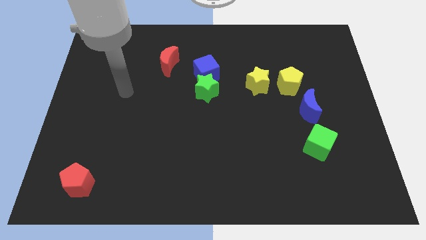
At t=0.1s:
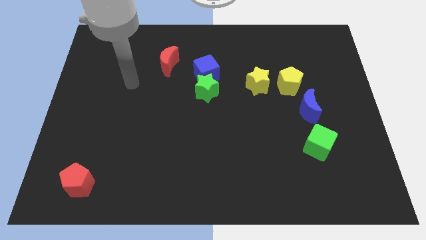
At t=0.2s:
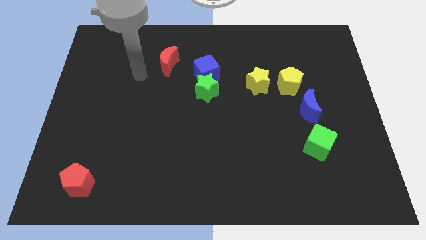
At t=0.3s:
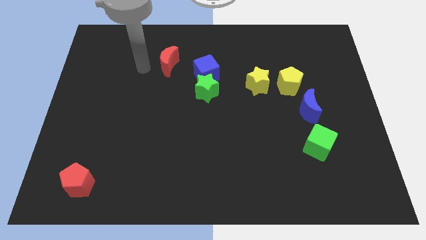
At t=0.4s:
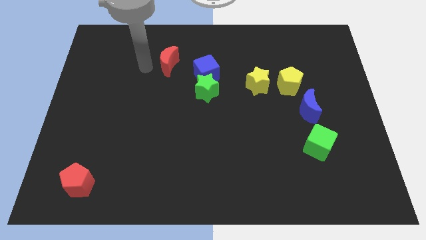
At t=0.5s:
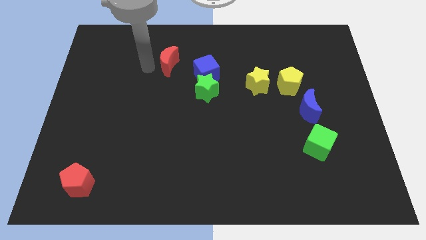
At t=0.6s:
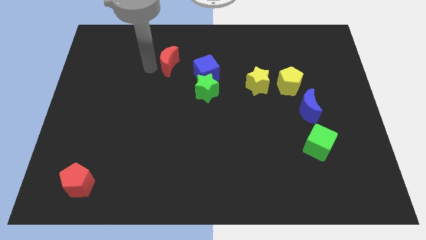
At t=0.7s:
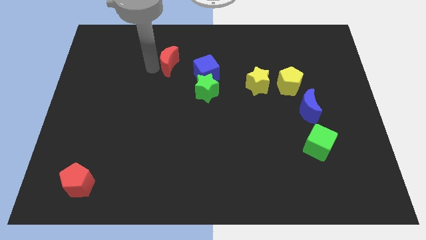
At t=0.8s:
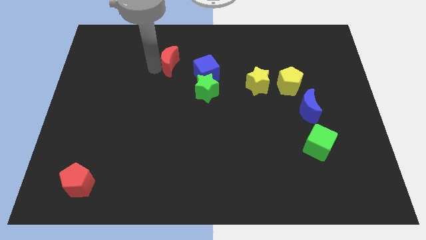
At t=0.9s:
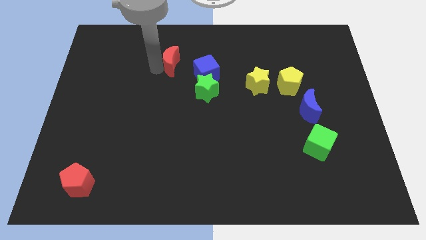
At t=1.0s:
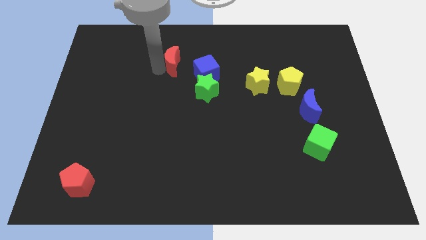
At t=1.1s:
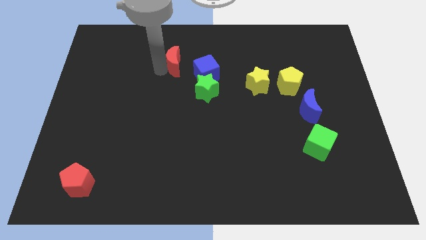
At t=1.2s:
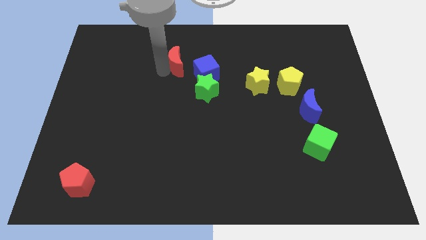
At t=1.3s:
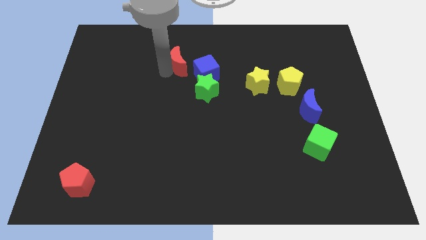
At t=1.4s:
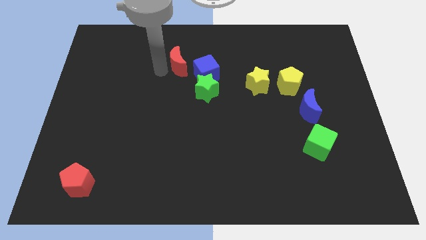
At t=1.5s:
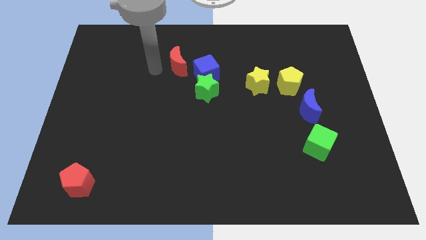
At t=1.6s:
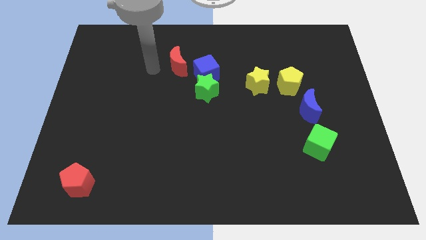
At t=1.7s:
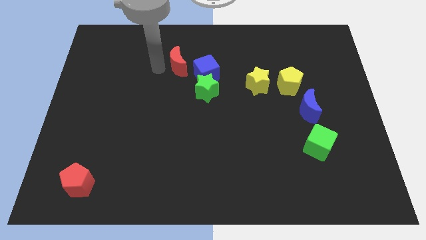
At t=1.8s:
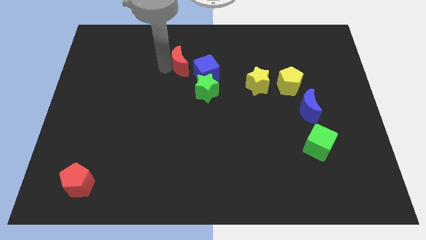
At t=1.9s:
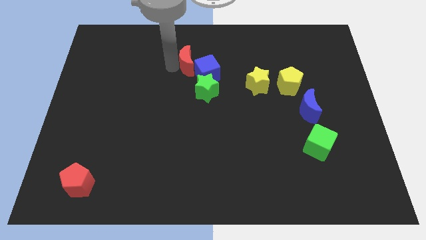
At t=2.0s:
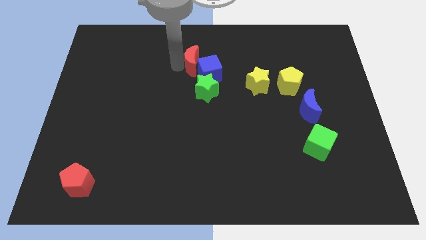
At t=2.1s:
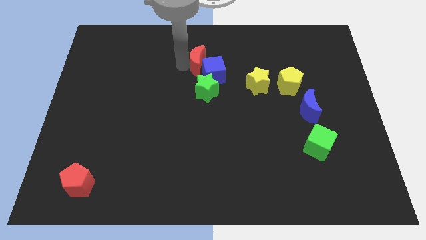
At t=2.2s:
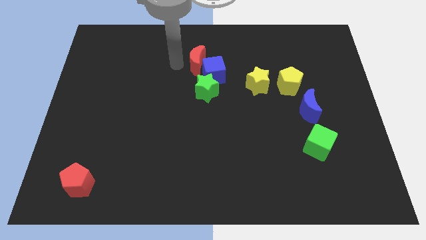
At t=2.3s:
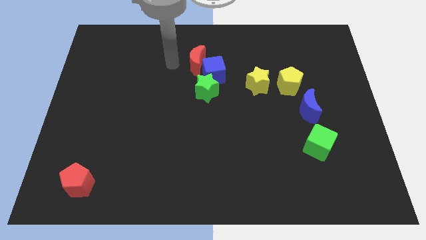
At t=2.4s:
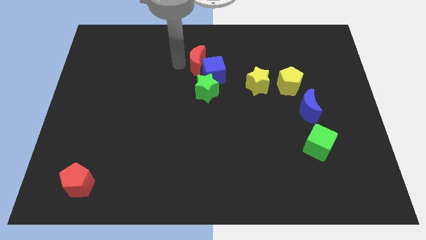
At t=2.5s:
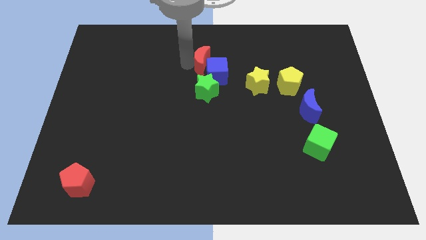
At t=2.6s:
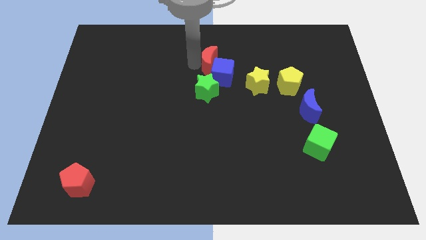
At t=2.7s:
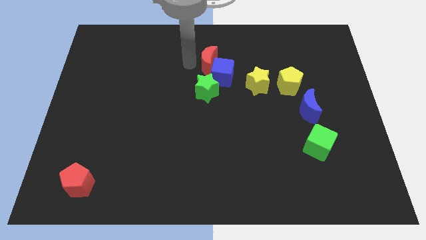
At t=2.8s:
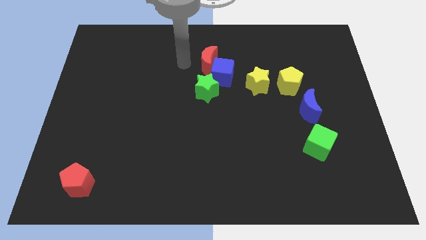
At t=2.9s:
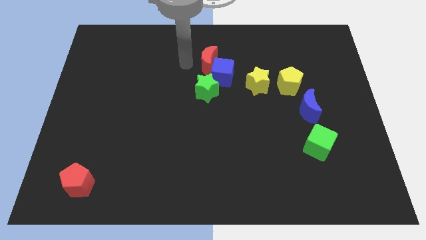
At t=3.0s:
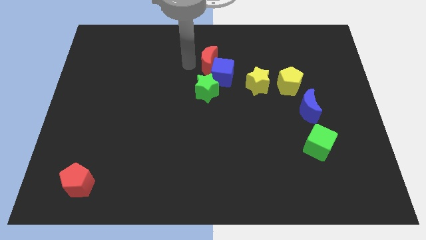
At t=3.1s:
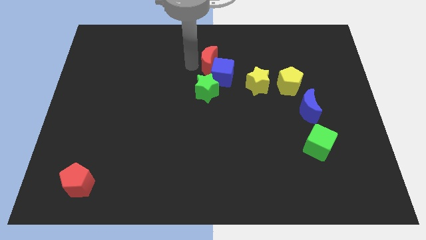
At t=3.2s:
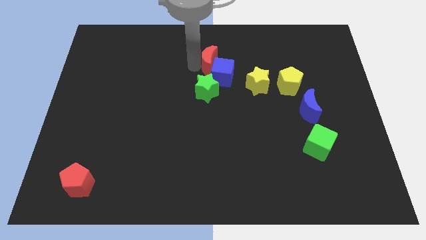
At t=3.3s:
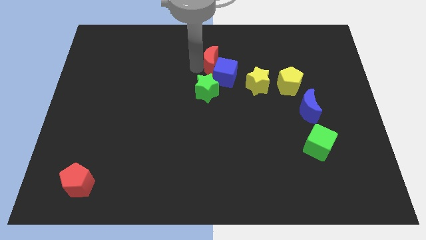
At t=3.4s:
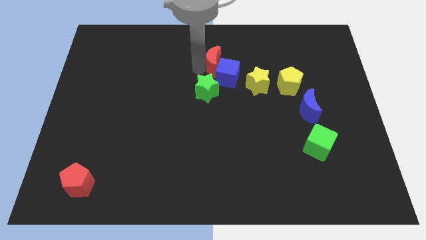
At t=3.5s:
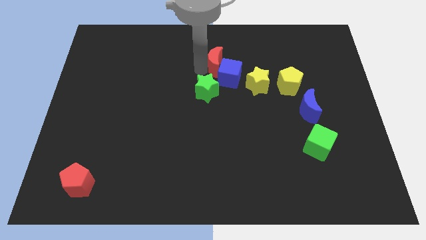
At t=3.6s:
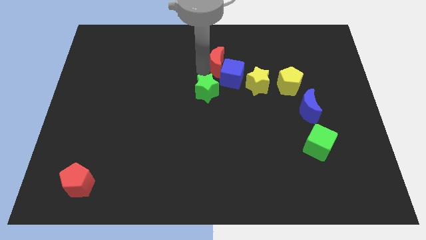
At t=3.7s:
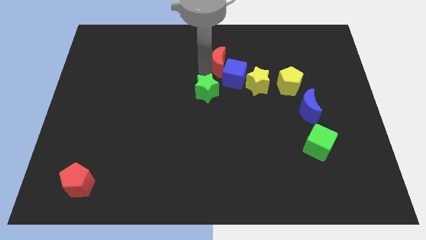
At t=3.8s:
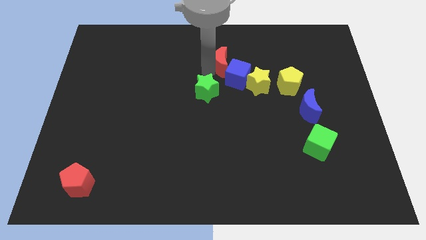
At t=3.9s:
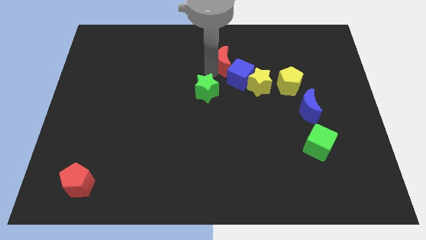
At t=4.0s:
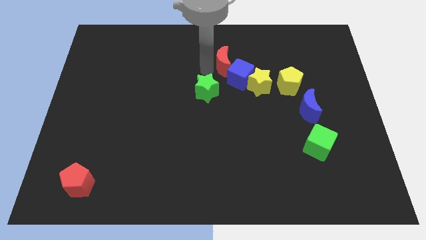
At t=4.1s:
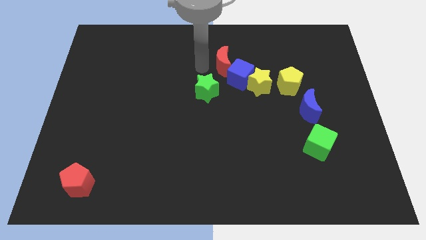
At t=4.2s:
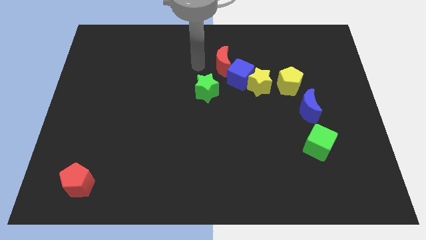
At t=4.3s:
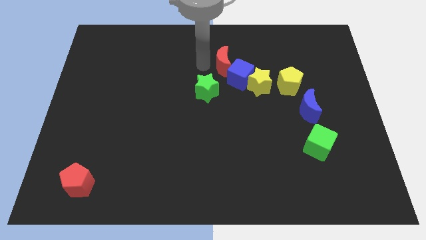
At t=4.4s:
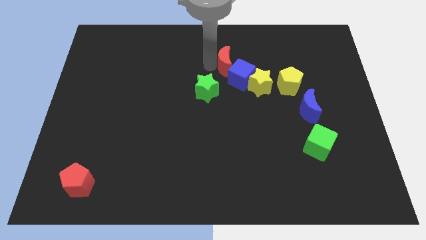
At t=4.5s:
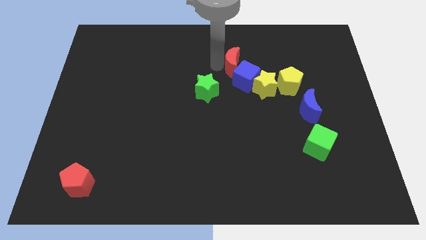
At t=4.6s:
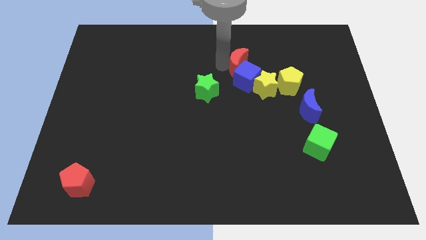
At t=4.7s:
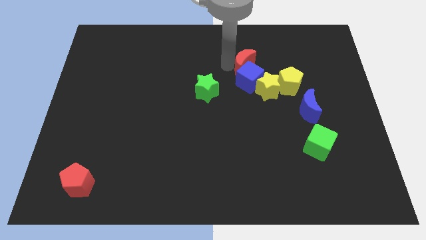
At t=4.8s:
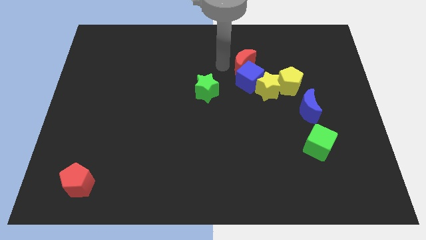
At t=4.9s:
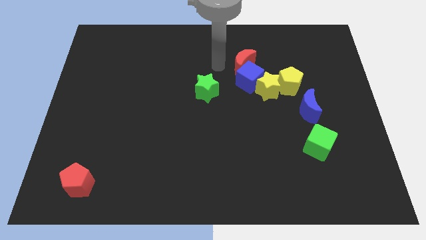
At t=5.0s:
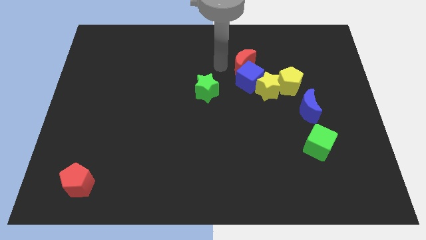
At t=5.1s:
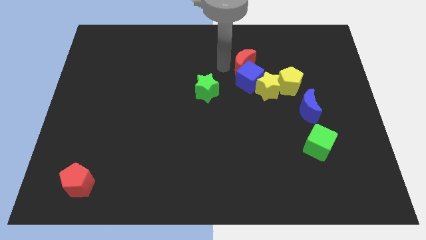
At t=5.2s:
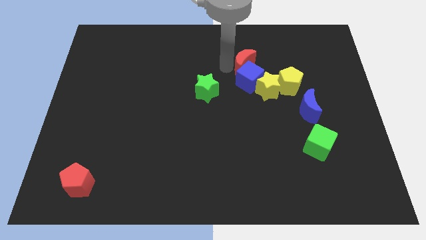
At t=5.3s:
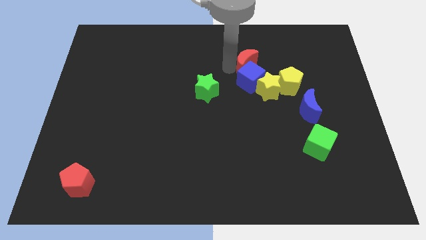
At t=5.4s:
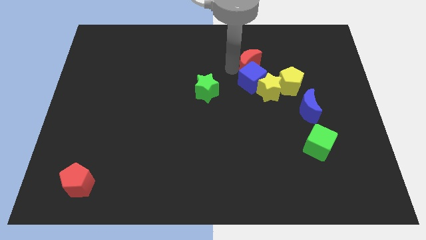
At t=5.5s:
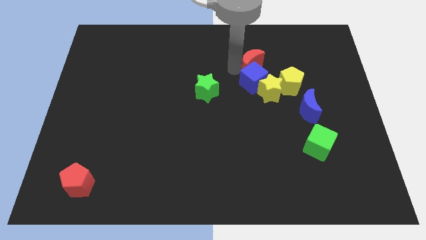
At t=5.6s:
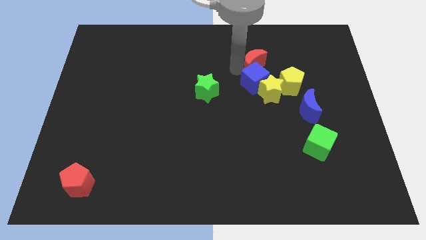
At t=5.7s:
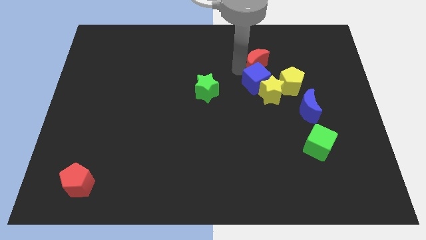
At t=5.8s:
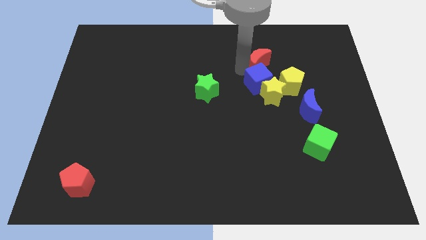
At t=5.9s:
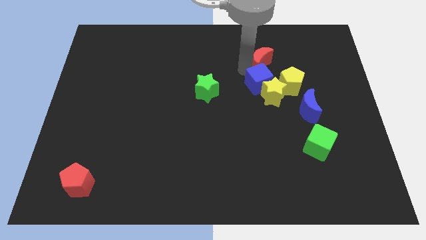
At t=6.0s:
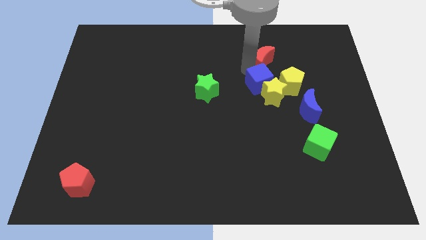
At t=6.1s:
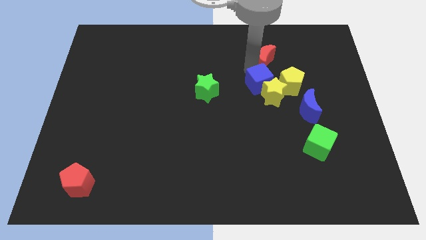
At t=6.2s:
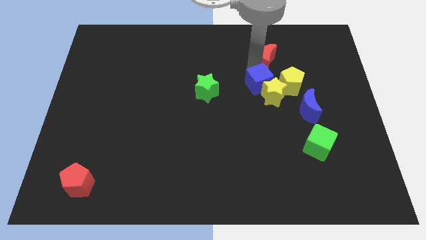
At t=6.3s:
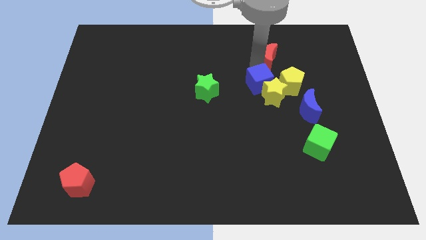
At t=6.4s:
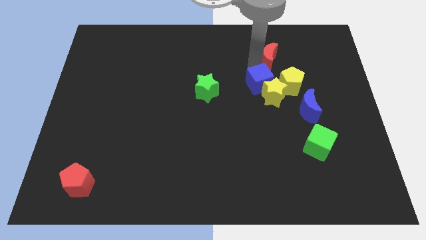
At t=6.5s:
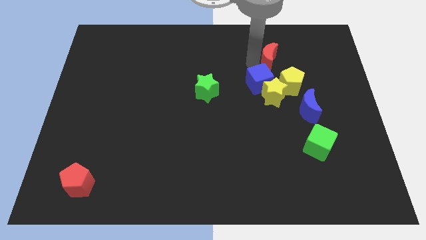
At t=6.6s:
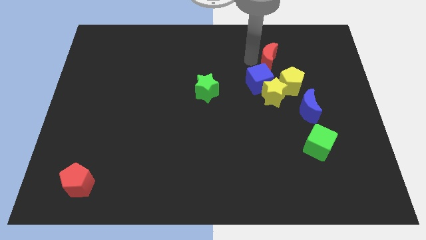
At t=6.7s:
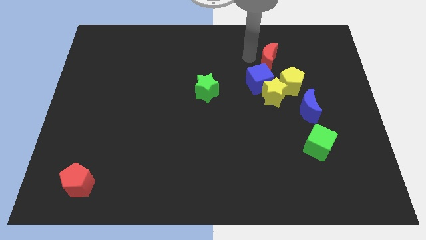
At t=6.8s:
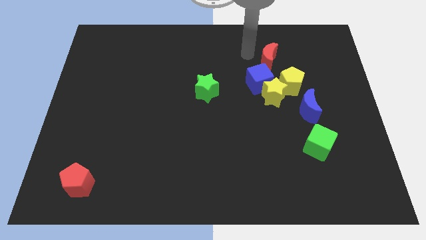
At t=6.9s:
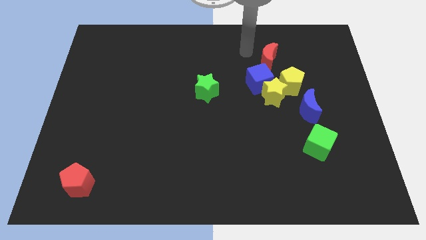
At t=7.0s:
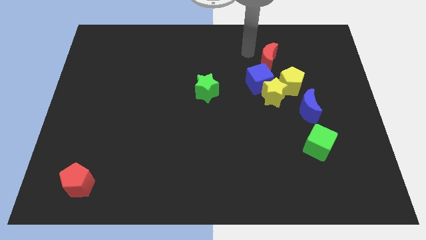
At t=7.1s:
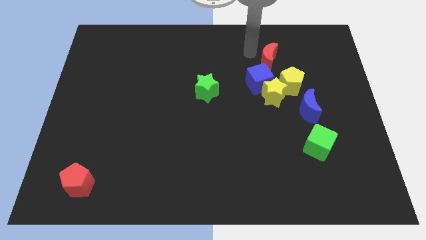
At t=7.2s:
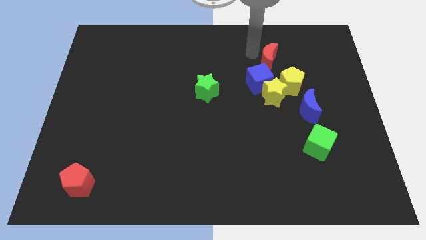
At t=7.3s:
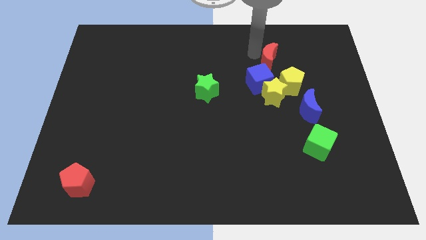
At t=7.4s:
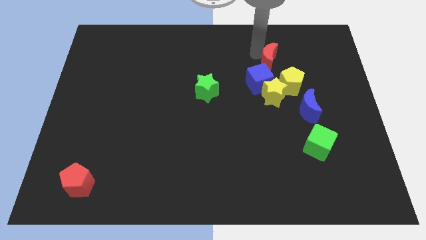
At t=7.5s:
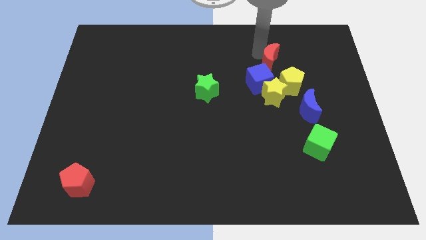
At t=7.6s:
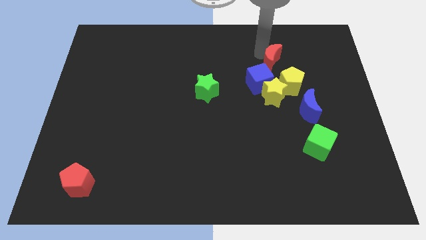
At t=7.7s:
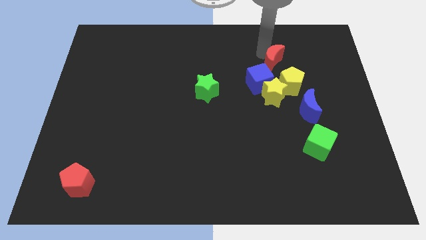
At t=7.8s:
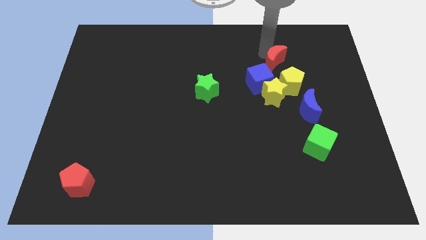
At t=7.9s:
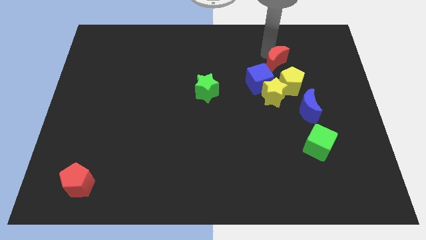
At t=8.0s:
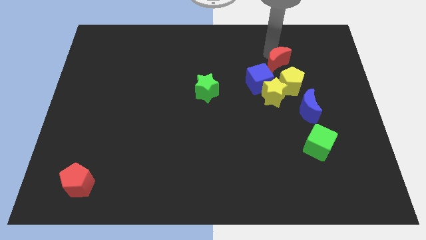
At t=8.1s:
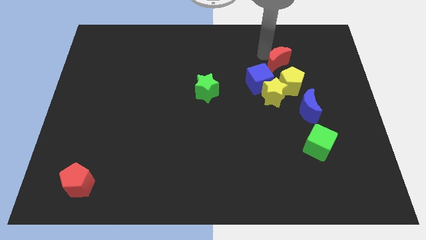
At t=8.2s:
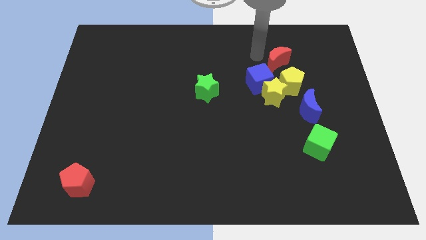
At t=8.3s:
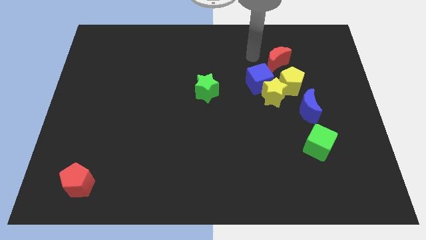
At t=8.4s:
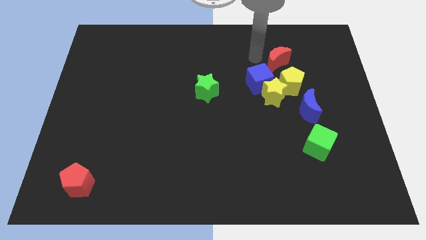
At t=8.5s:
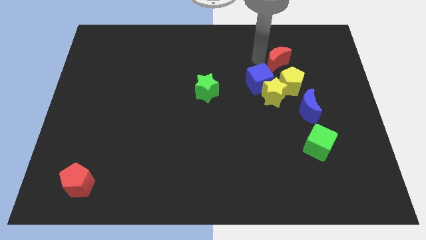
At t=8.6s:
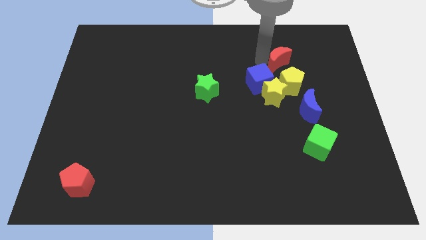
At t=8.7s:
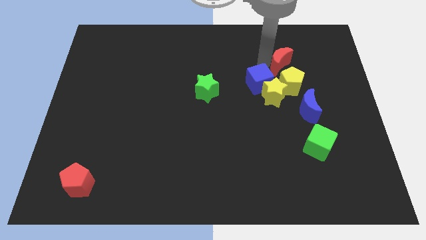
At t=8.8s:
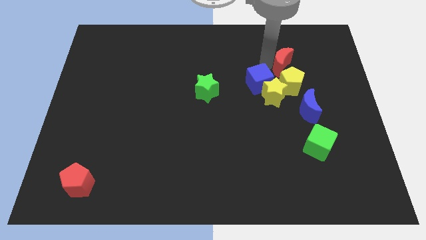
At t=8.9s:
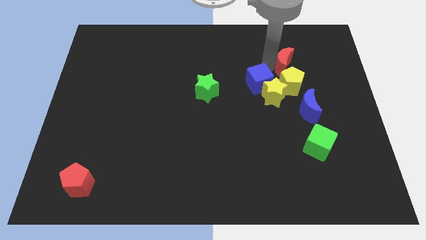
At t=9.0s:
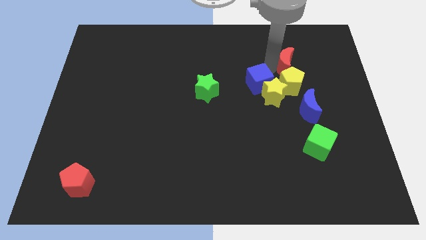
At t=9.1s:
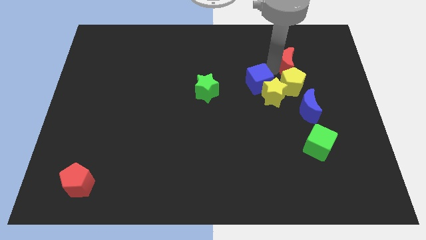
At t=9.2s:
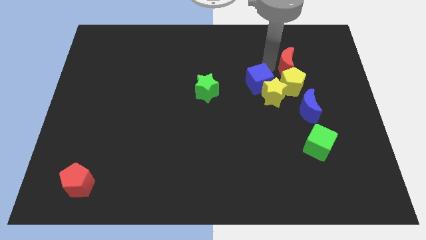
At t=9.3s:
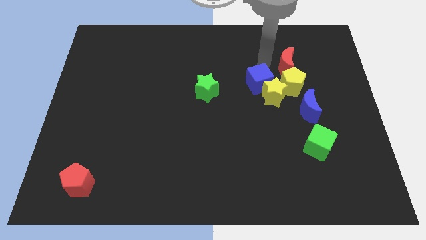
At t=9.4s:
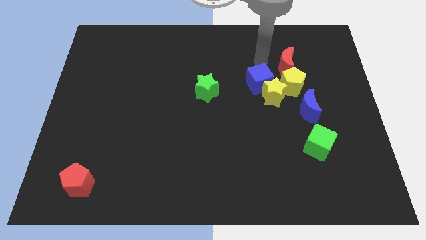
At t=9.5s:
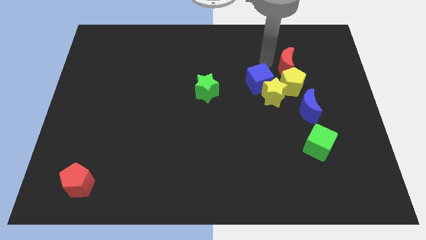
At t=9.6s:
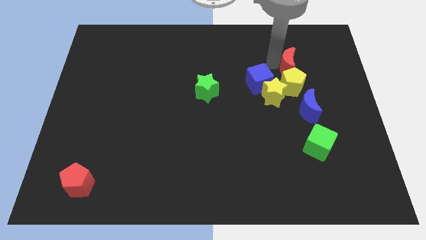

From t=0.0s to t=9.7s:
put the red moon diagonally up and to the right of the yellow pentagon
